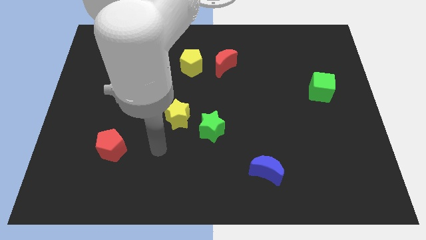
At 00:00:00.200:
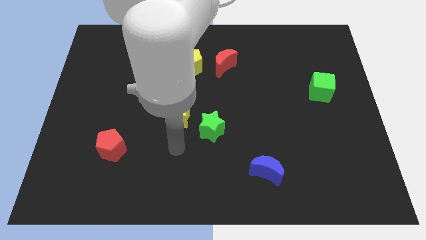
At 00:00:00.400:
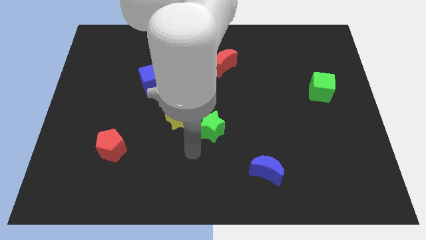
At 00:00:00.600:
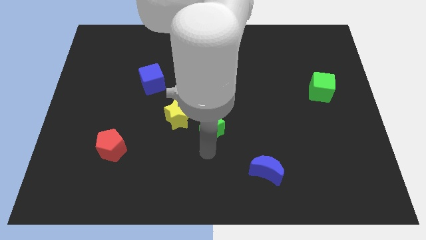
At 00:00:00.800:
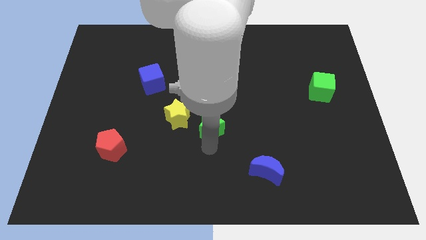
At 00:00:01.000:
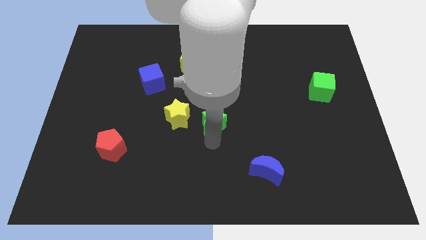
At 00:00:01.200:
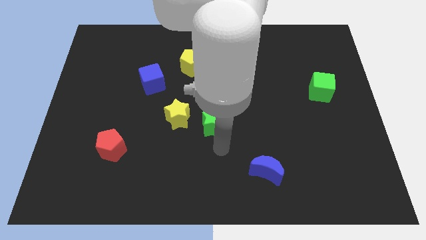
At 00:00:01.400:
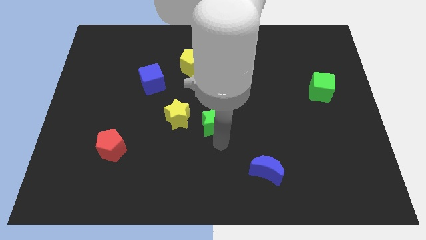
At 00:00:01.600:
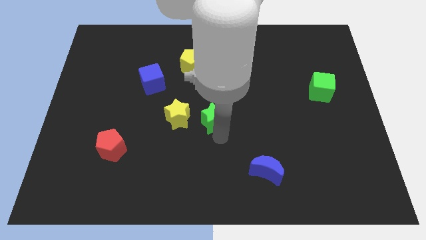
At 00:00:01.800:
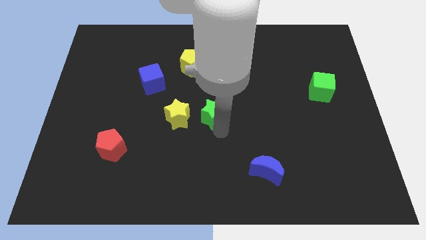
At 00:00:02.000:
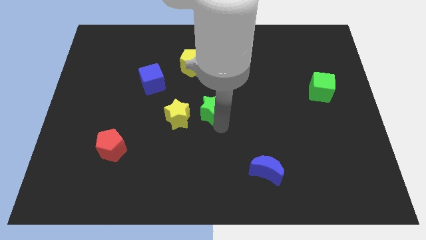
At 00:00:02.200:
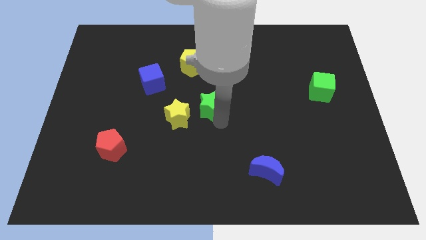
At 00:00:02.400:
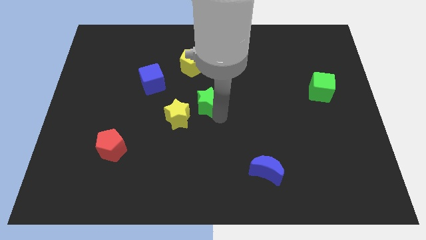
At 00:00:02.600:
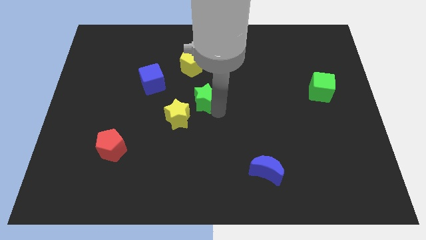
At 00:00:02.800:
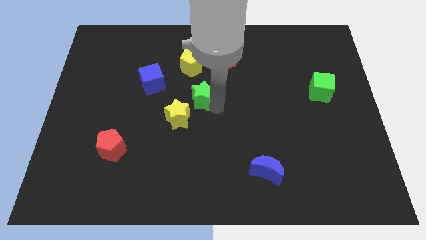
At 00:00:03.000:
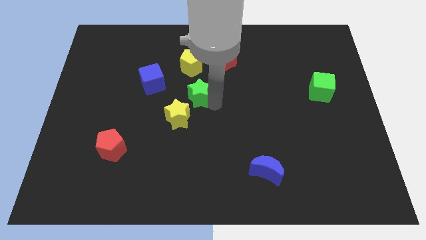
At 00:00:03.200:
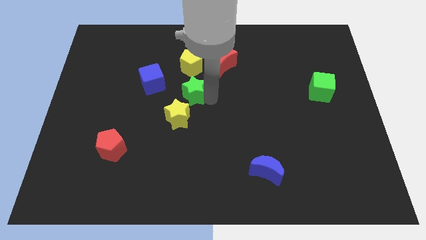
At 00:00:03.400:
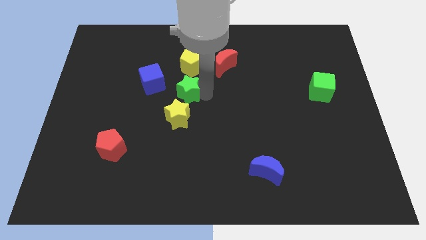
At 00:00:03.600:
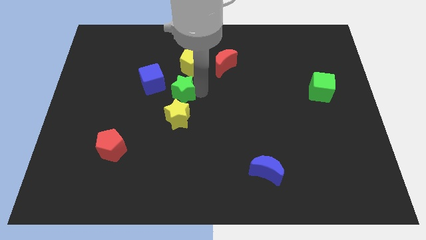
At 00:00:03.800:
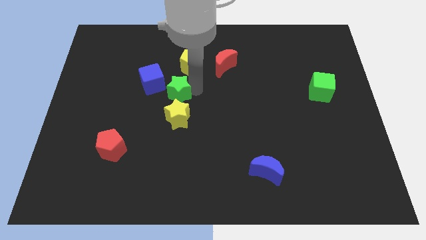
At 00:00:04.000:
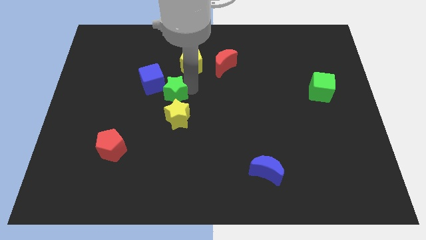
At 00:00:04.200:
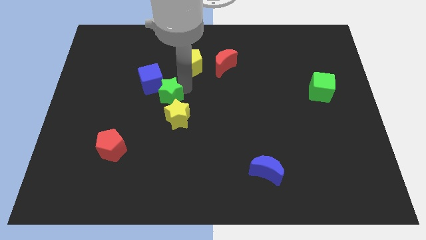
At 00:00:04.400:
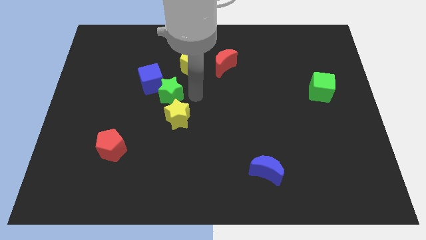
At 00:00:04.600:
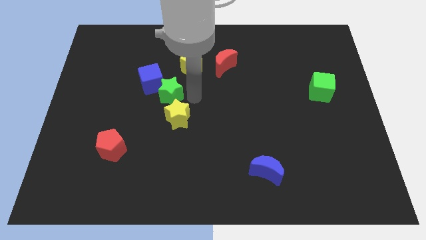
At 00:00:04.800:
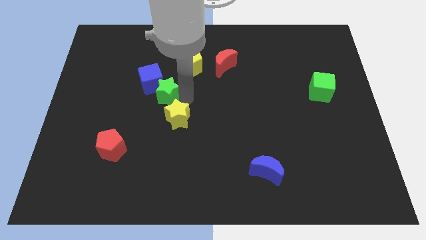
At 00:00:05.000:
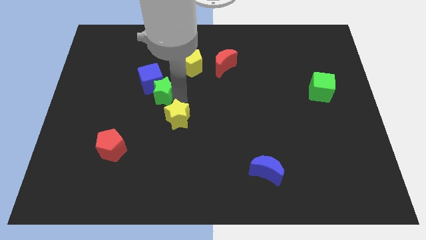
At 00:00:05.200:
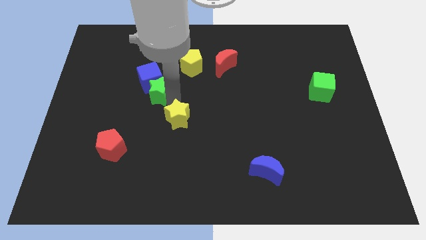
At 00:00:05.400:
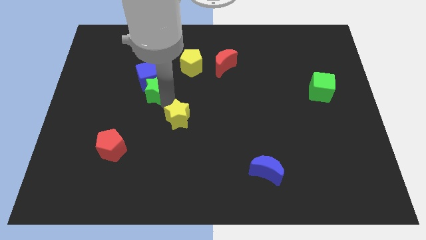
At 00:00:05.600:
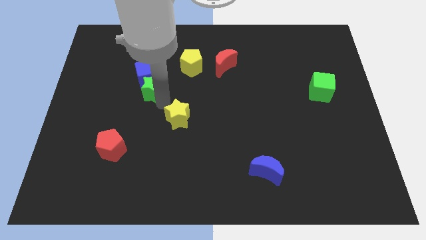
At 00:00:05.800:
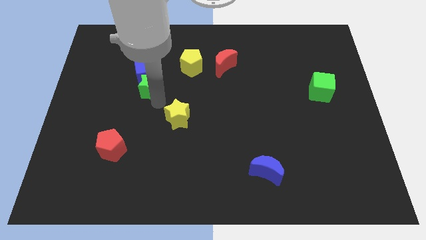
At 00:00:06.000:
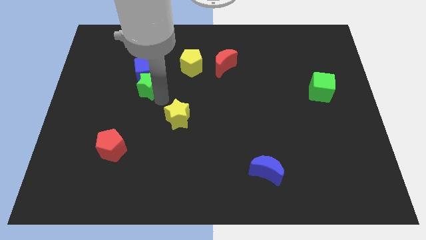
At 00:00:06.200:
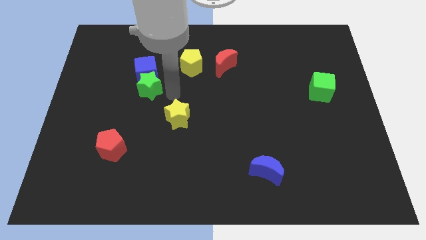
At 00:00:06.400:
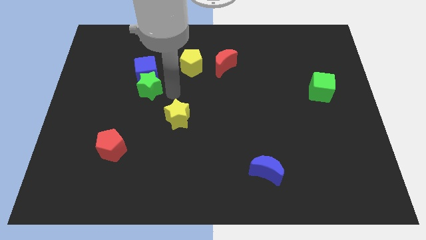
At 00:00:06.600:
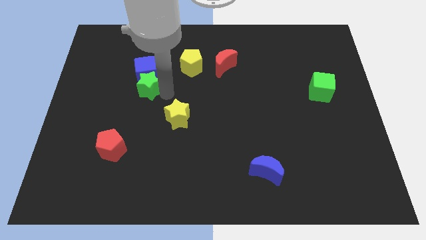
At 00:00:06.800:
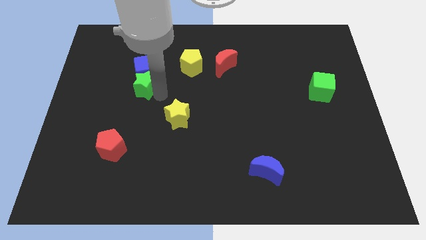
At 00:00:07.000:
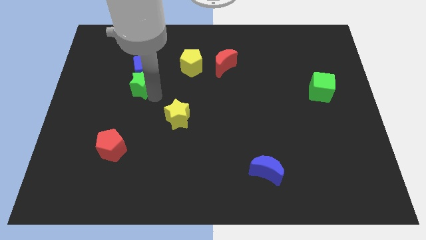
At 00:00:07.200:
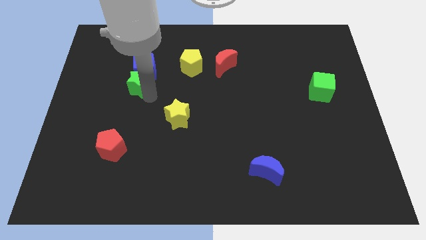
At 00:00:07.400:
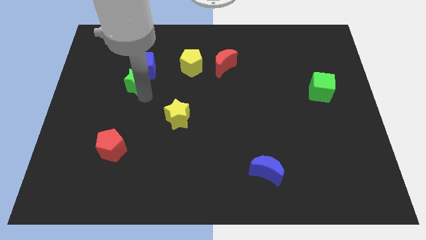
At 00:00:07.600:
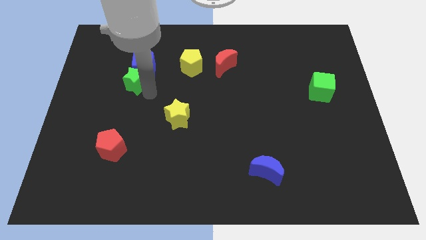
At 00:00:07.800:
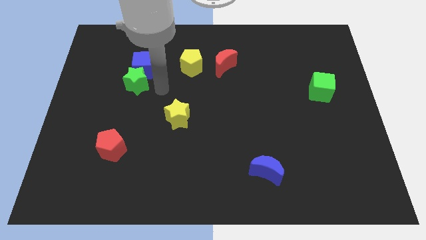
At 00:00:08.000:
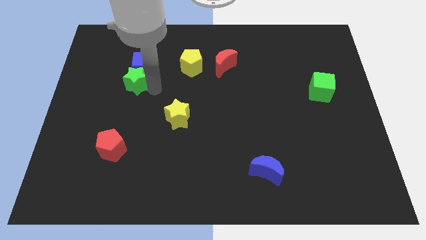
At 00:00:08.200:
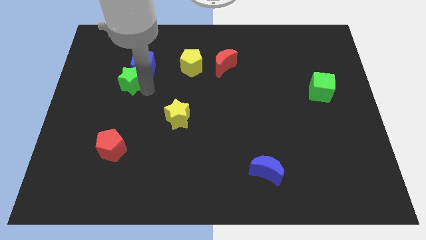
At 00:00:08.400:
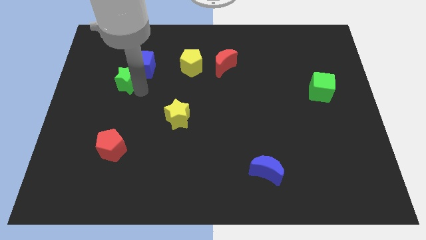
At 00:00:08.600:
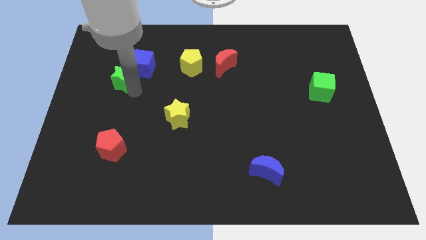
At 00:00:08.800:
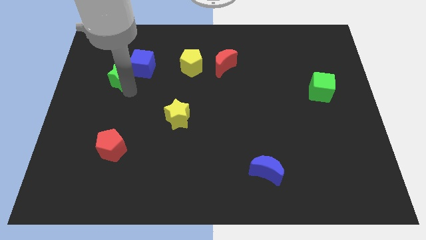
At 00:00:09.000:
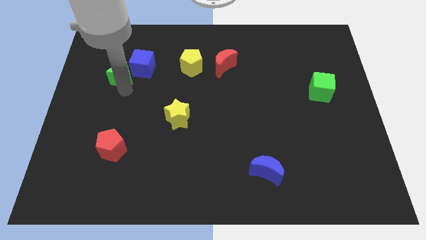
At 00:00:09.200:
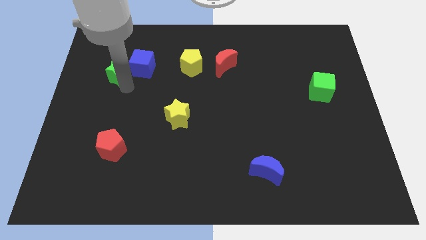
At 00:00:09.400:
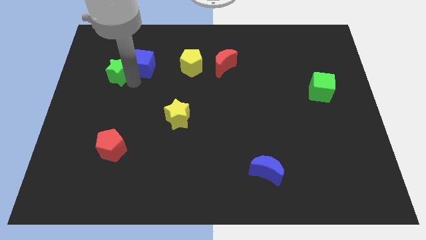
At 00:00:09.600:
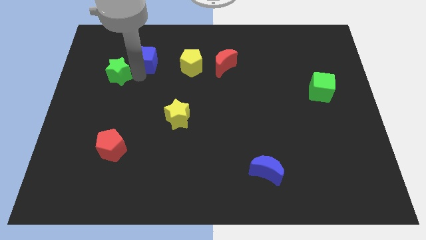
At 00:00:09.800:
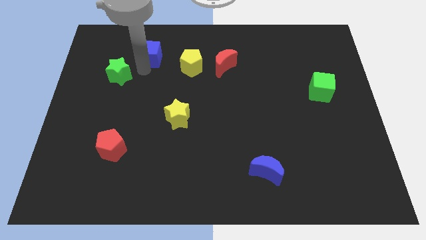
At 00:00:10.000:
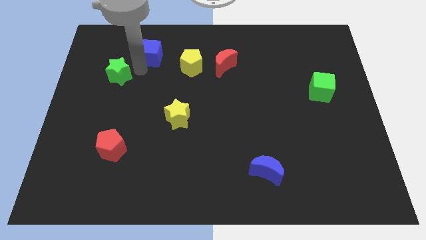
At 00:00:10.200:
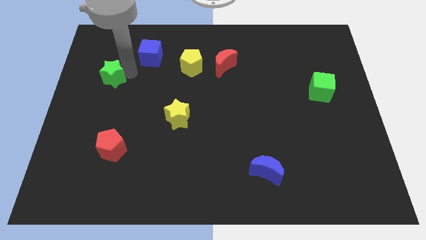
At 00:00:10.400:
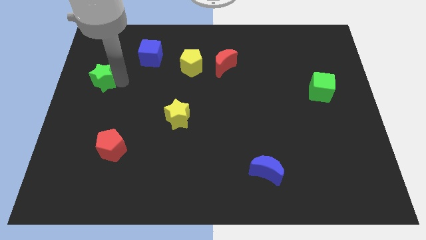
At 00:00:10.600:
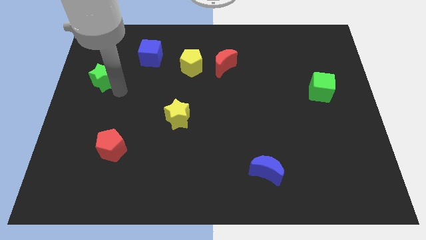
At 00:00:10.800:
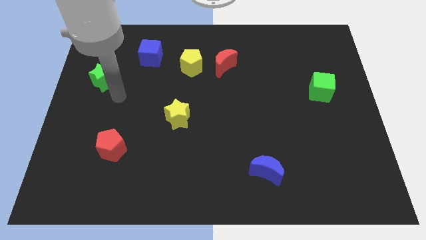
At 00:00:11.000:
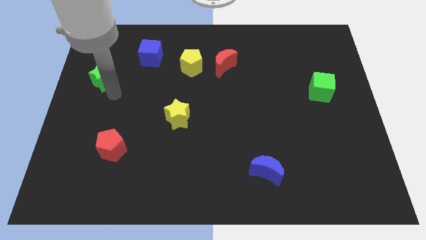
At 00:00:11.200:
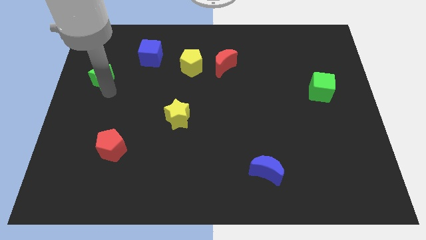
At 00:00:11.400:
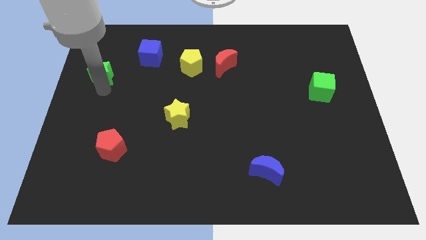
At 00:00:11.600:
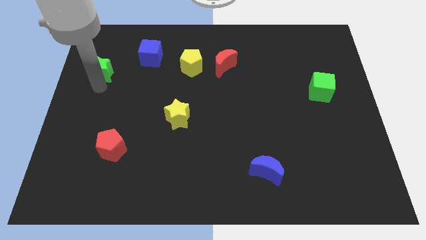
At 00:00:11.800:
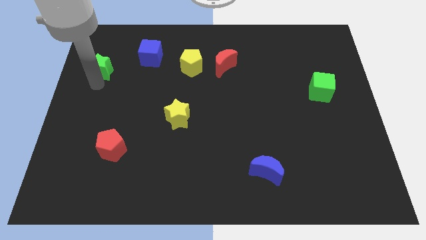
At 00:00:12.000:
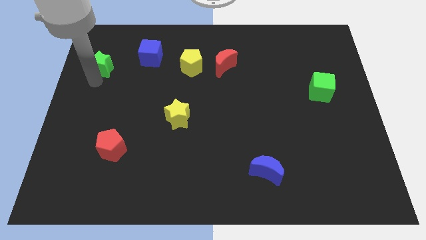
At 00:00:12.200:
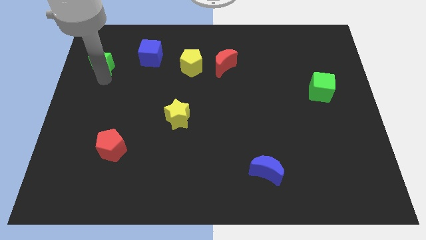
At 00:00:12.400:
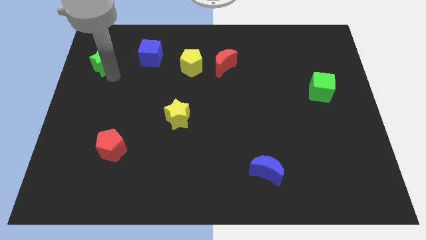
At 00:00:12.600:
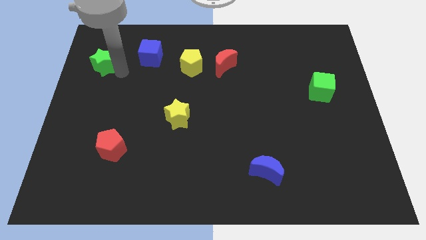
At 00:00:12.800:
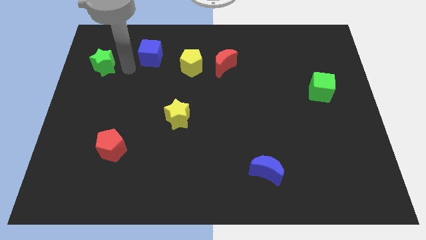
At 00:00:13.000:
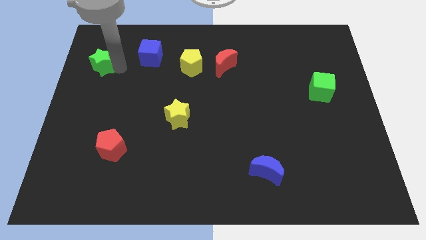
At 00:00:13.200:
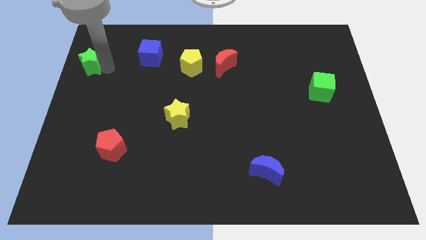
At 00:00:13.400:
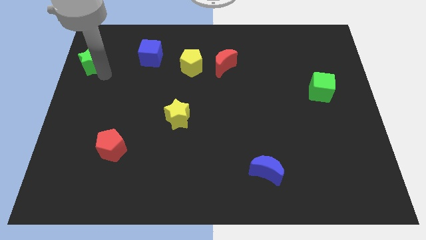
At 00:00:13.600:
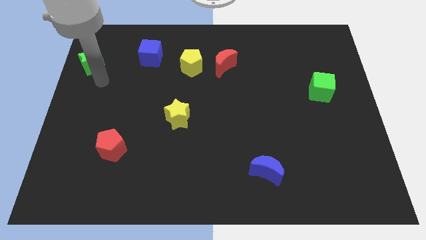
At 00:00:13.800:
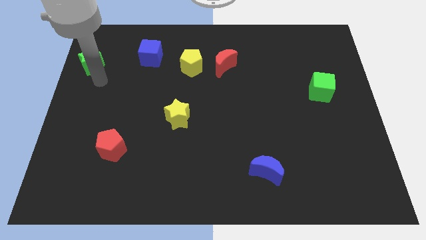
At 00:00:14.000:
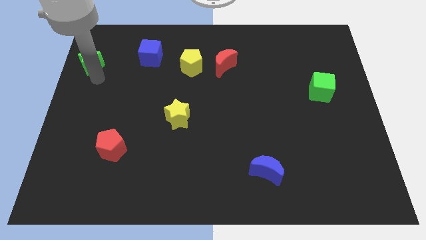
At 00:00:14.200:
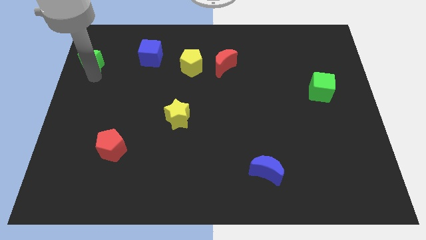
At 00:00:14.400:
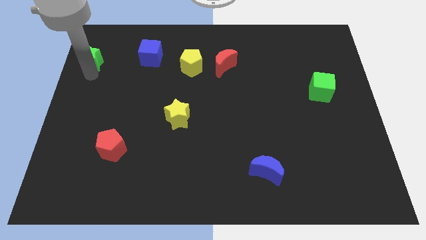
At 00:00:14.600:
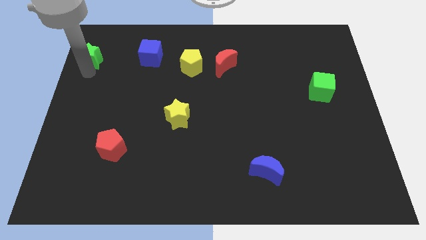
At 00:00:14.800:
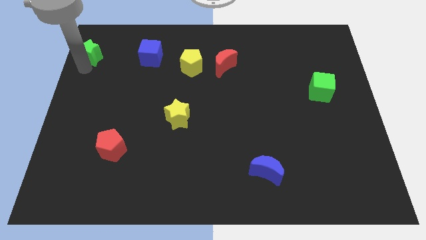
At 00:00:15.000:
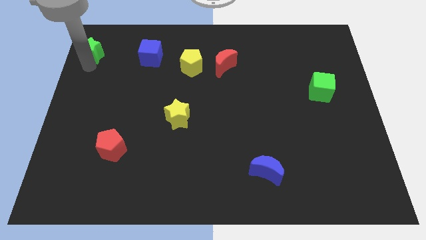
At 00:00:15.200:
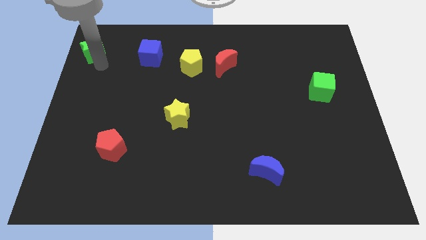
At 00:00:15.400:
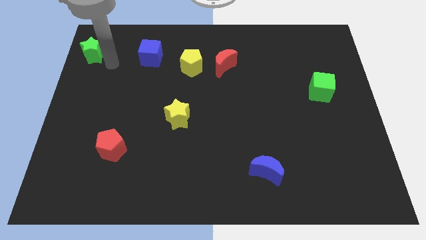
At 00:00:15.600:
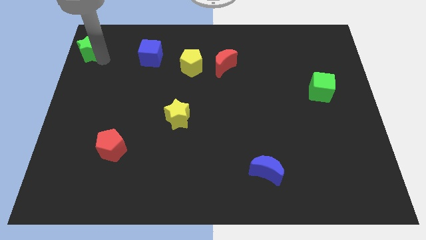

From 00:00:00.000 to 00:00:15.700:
push the green star to the top left corner
